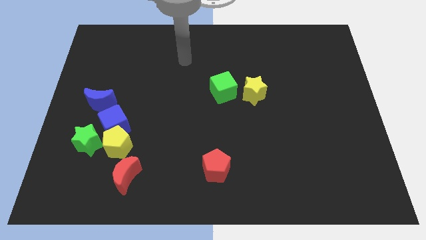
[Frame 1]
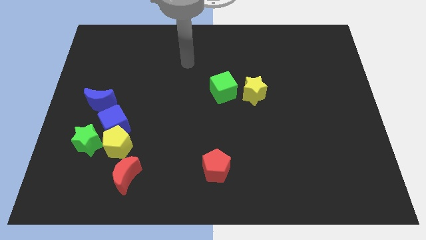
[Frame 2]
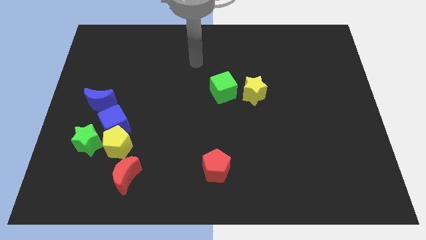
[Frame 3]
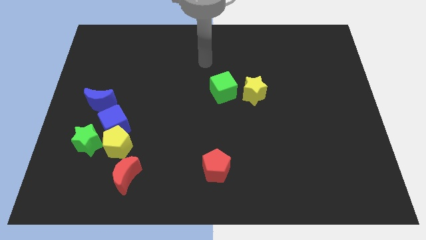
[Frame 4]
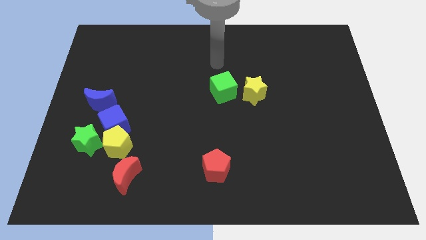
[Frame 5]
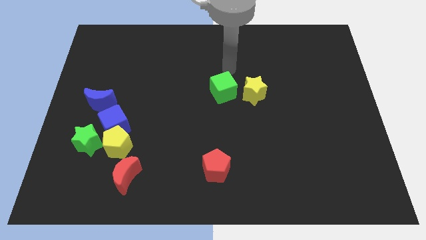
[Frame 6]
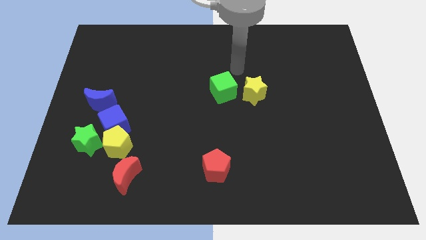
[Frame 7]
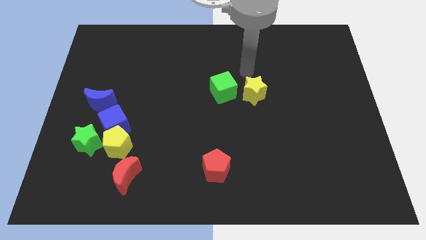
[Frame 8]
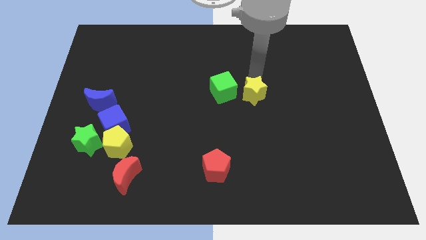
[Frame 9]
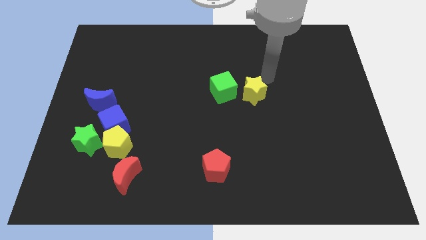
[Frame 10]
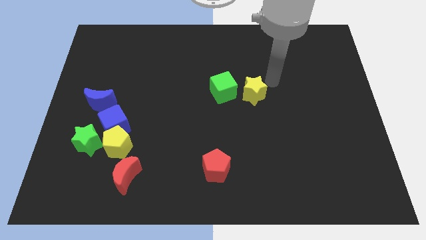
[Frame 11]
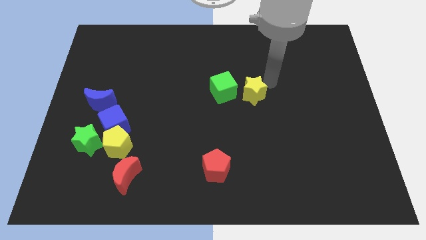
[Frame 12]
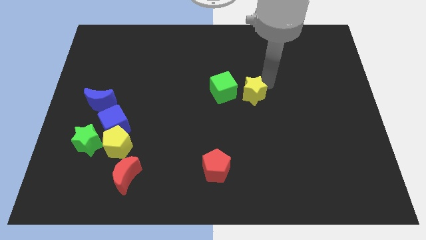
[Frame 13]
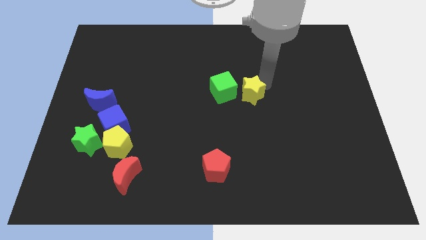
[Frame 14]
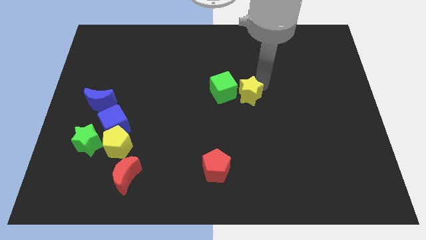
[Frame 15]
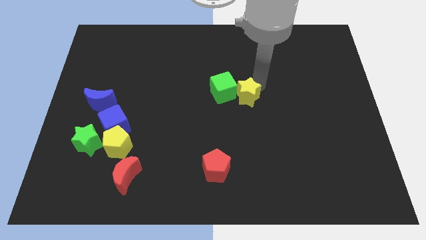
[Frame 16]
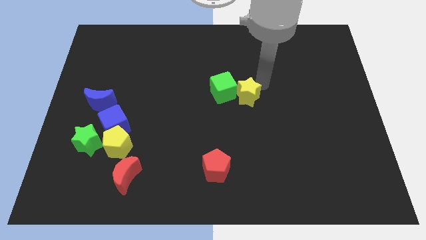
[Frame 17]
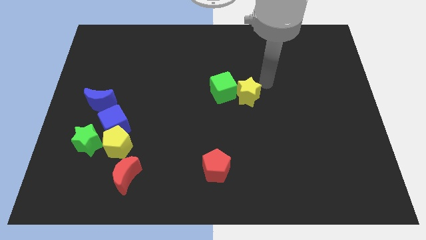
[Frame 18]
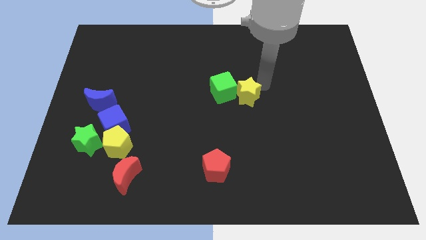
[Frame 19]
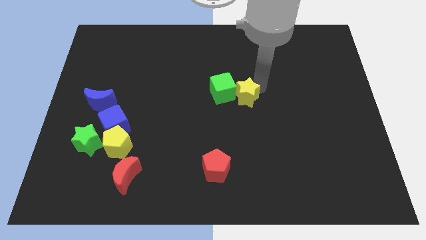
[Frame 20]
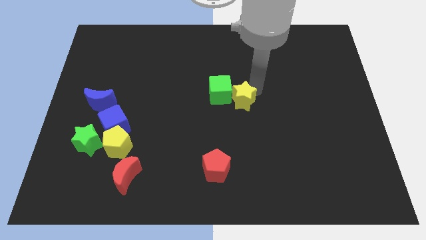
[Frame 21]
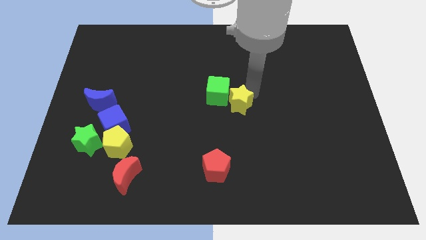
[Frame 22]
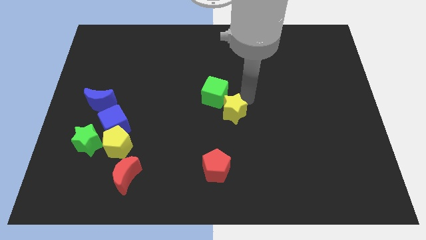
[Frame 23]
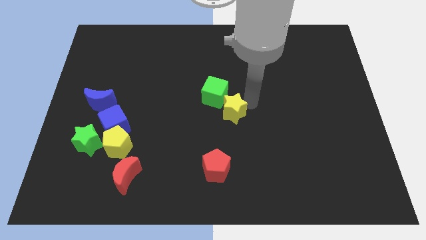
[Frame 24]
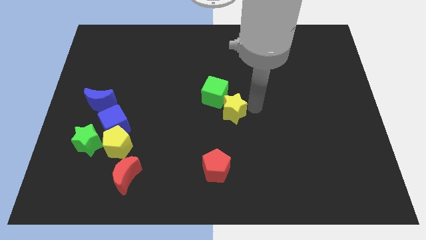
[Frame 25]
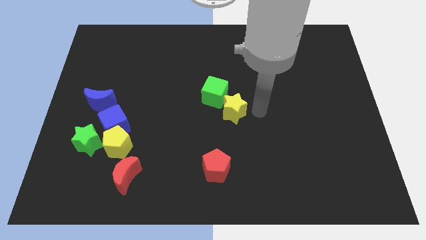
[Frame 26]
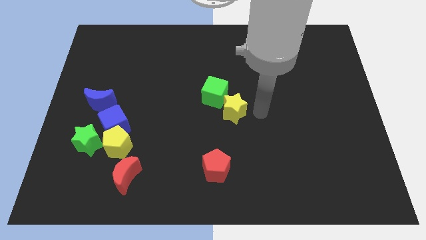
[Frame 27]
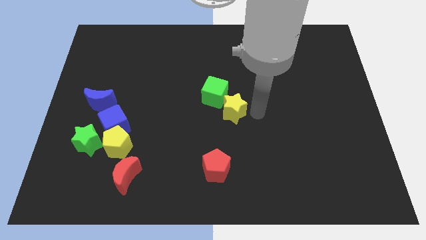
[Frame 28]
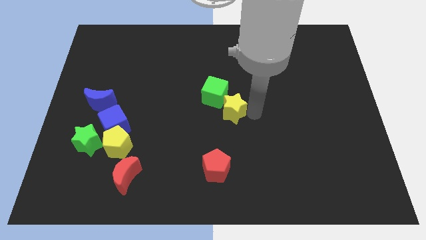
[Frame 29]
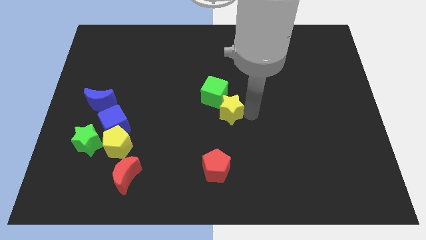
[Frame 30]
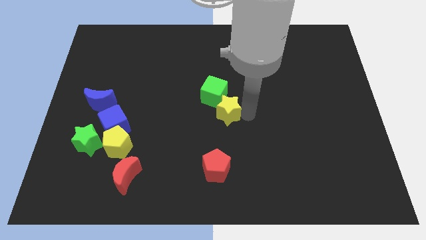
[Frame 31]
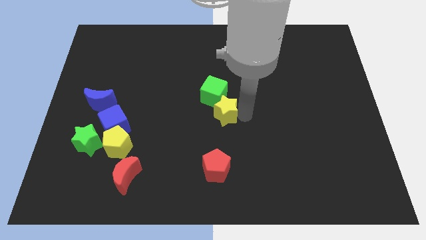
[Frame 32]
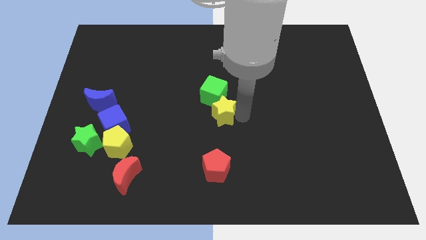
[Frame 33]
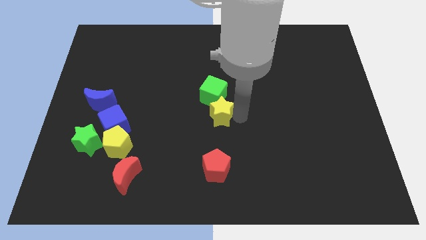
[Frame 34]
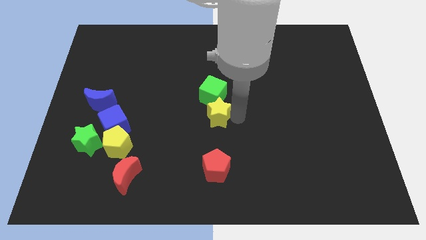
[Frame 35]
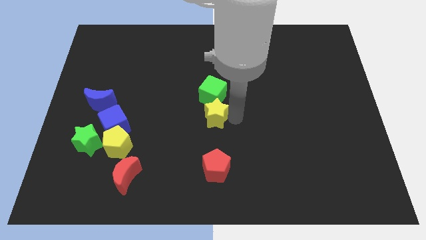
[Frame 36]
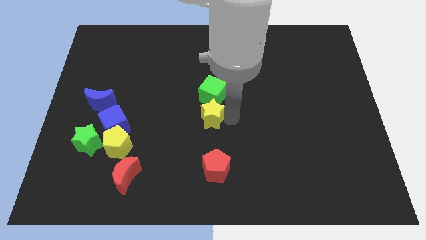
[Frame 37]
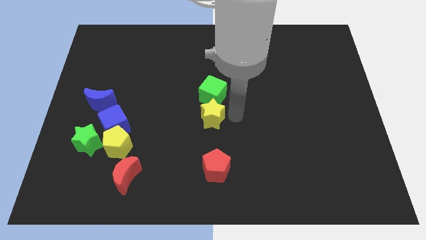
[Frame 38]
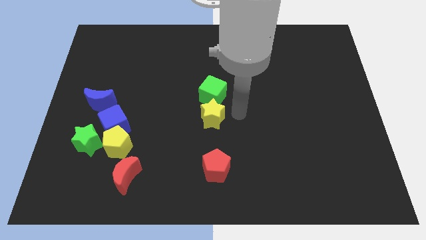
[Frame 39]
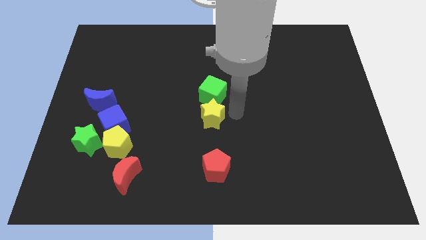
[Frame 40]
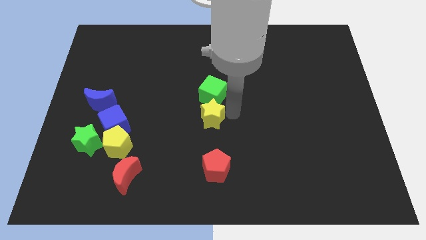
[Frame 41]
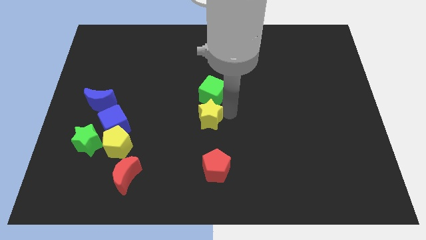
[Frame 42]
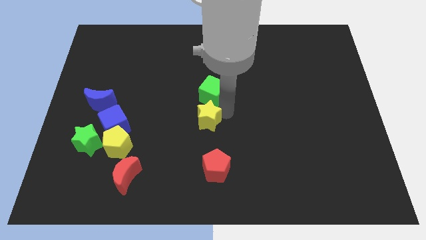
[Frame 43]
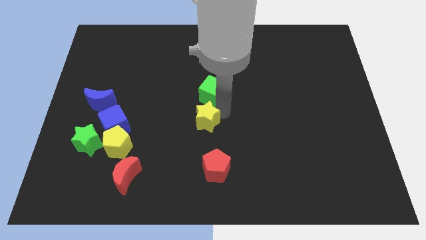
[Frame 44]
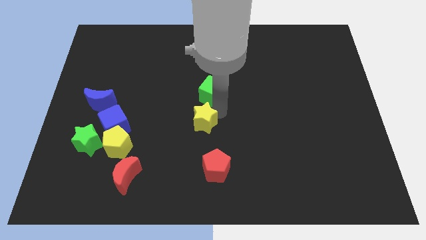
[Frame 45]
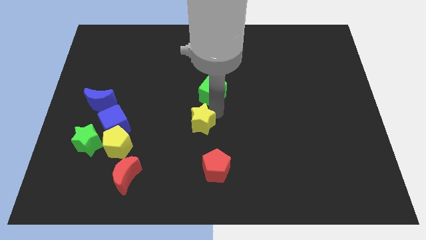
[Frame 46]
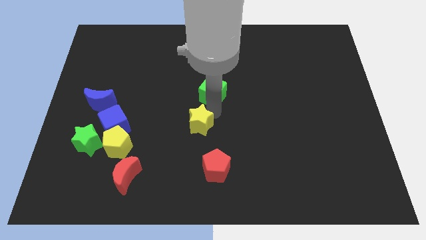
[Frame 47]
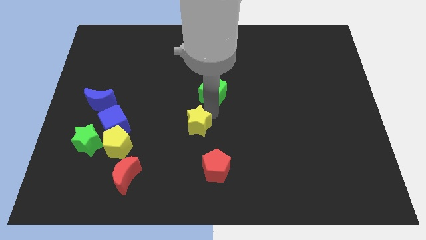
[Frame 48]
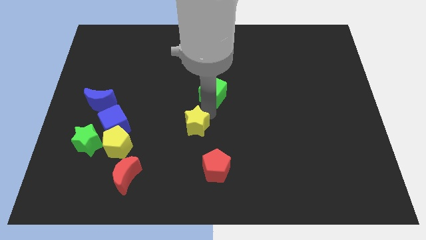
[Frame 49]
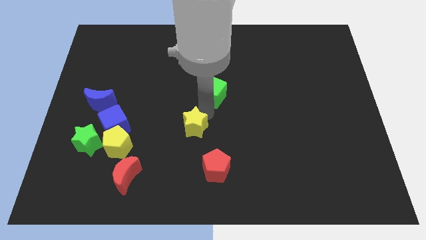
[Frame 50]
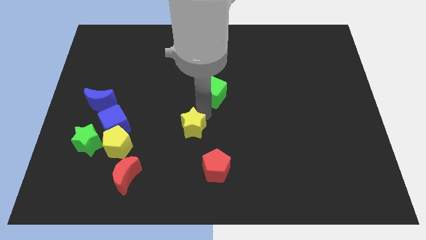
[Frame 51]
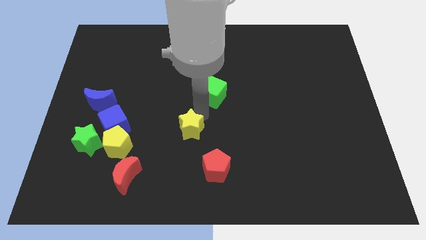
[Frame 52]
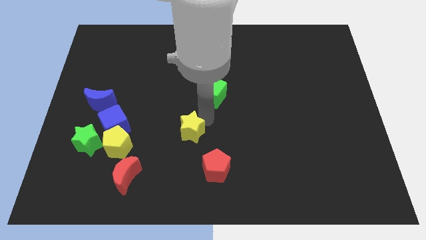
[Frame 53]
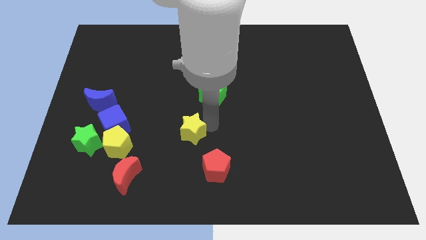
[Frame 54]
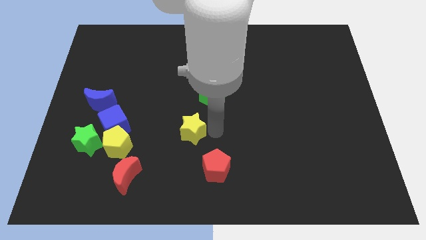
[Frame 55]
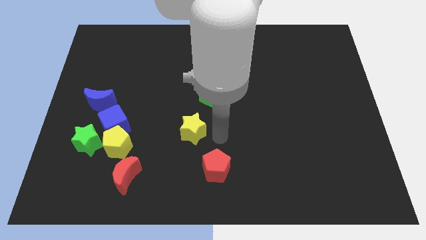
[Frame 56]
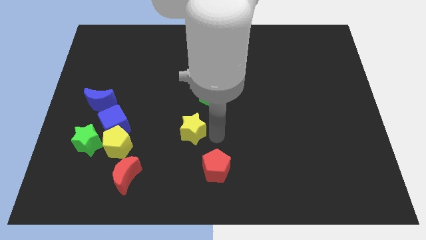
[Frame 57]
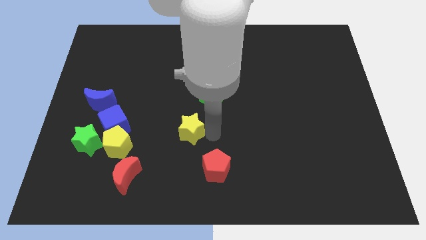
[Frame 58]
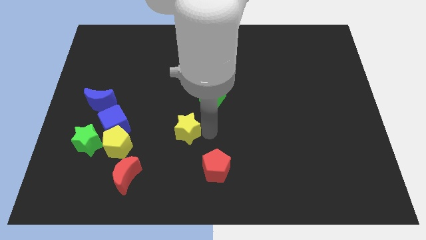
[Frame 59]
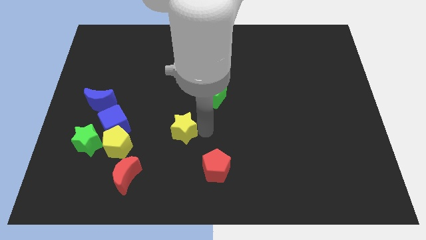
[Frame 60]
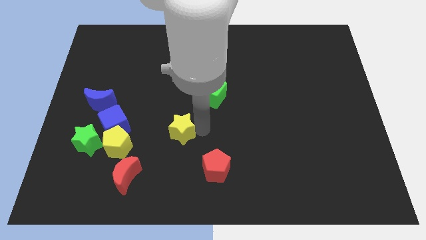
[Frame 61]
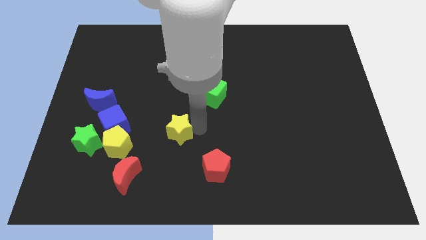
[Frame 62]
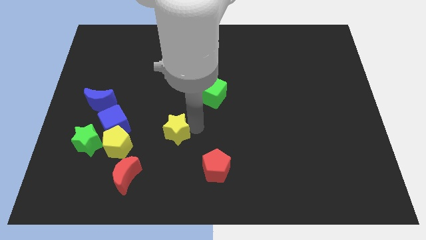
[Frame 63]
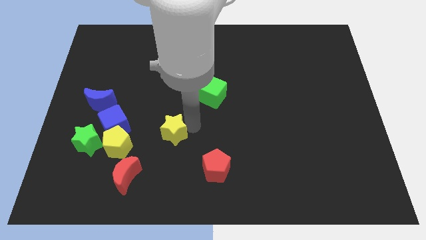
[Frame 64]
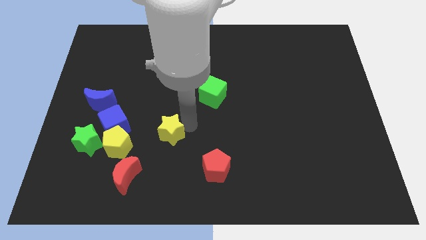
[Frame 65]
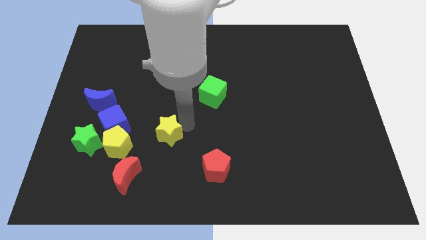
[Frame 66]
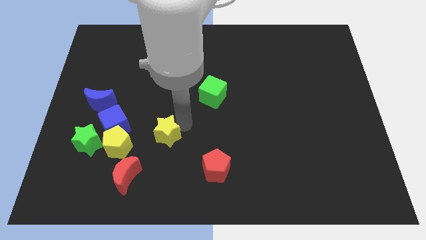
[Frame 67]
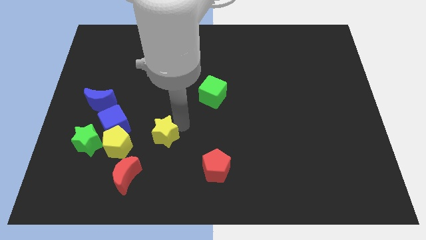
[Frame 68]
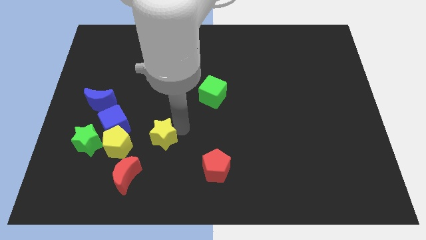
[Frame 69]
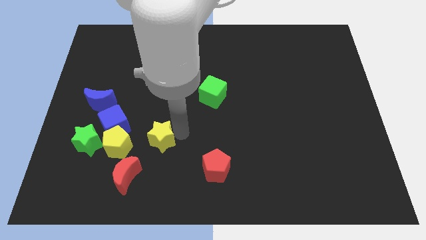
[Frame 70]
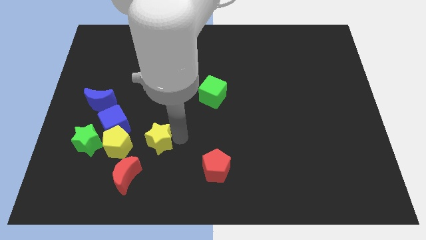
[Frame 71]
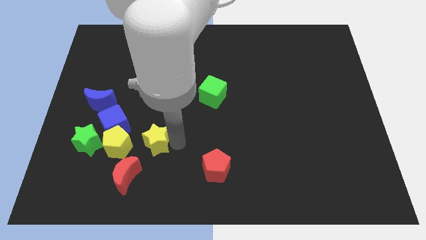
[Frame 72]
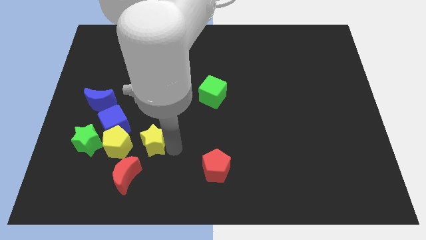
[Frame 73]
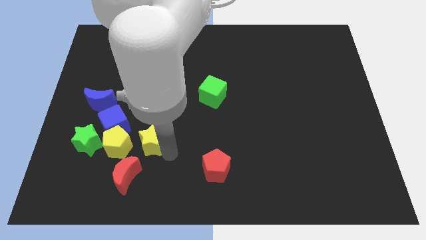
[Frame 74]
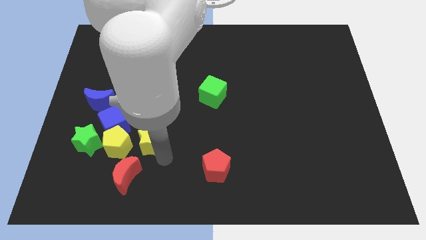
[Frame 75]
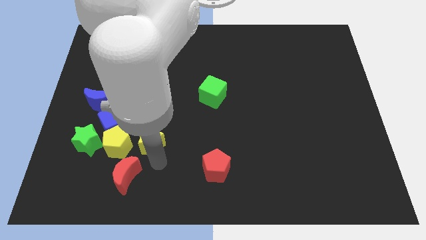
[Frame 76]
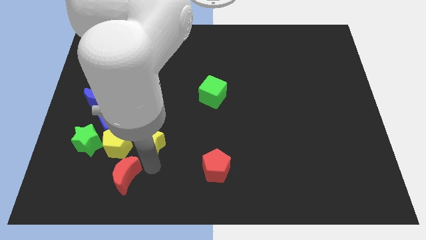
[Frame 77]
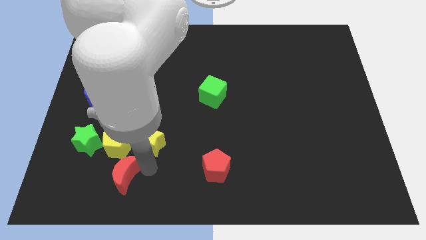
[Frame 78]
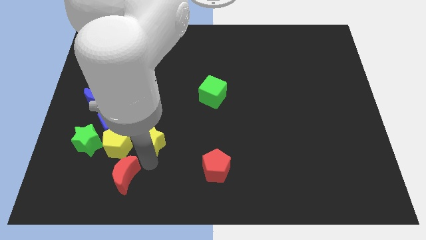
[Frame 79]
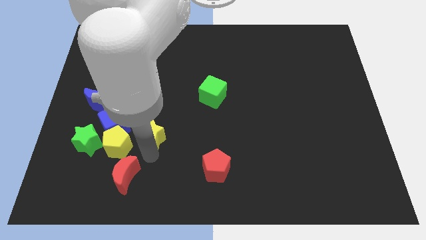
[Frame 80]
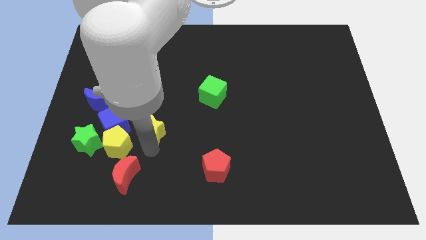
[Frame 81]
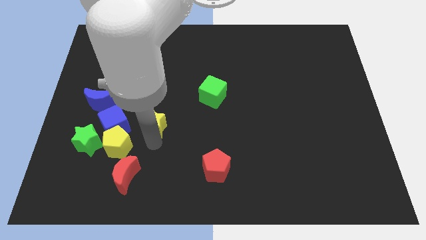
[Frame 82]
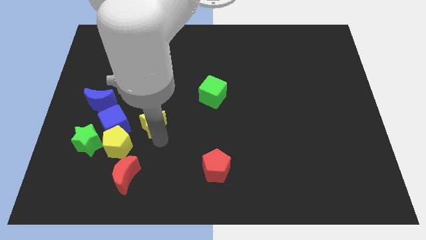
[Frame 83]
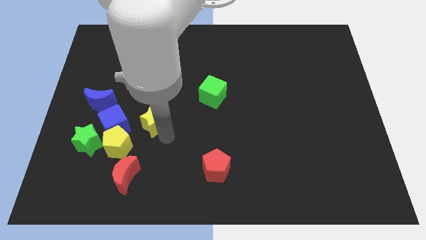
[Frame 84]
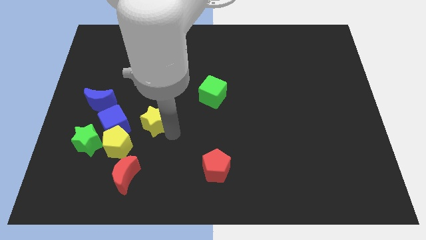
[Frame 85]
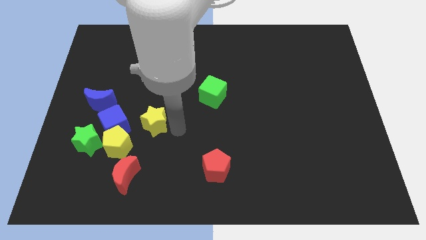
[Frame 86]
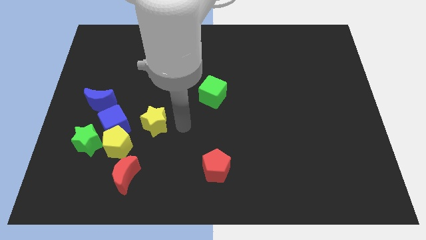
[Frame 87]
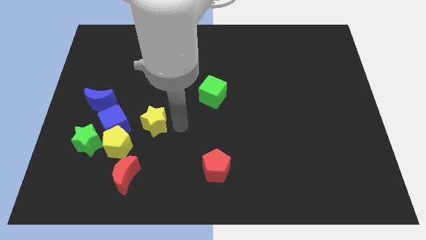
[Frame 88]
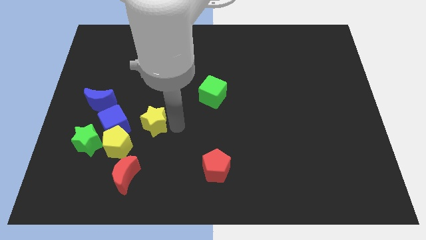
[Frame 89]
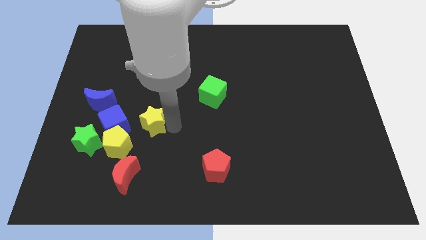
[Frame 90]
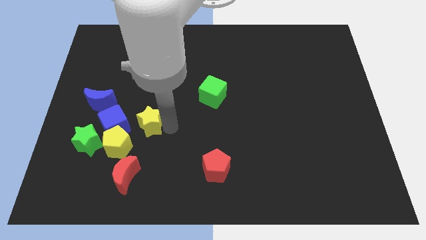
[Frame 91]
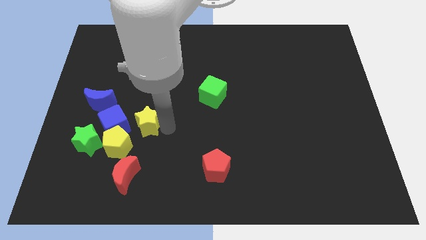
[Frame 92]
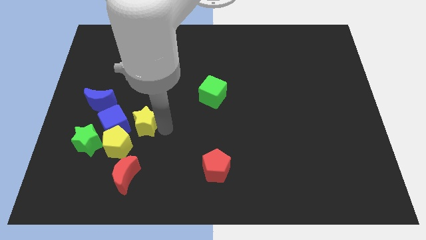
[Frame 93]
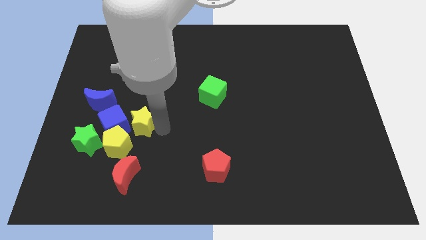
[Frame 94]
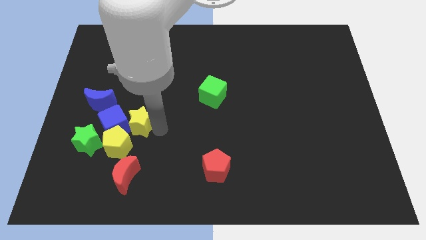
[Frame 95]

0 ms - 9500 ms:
move the yellow star towards the blue cube
